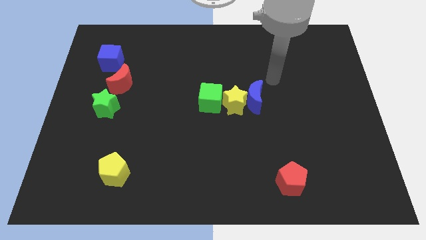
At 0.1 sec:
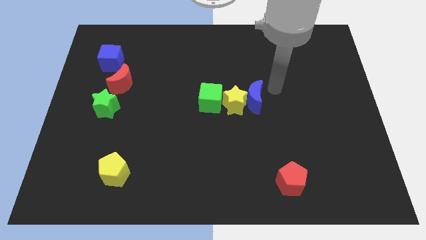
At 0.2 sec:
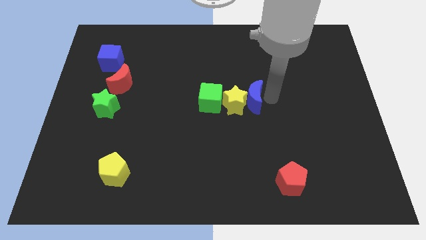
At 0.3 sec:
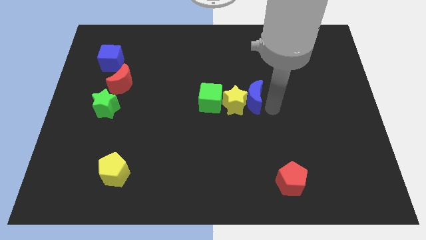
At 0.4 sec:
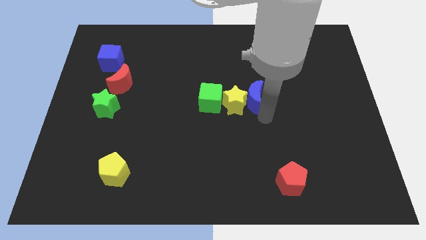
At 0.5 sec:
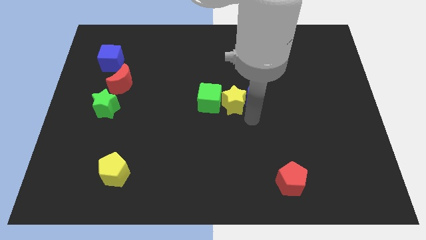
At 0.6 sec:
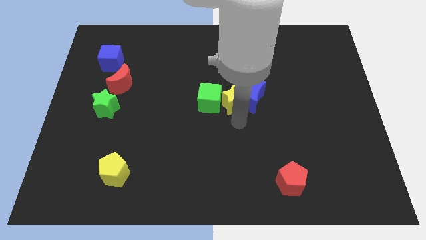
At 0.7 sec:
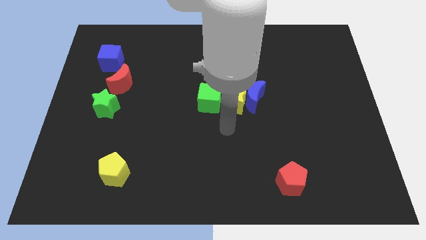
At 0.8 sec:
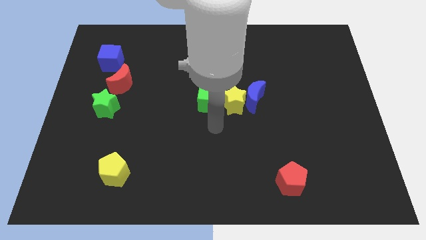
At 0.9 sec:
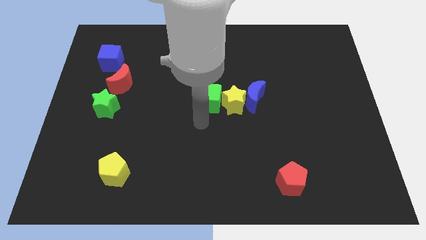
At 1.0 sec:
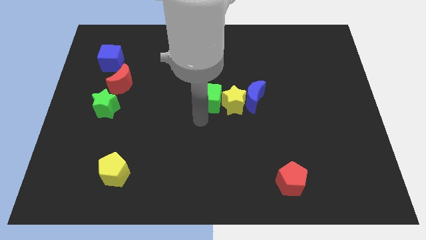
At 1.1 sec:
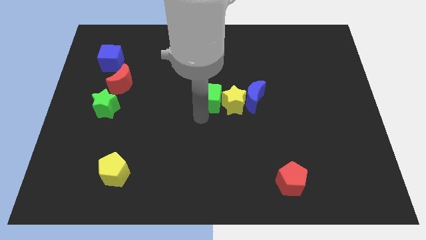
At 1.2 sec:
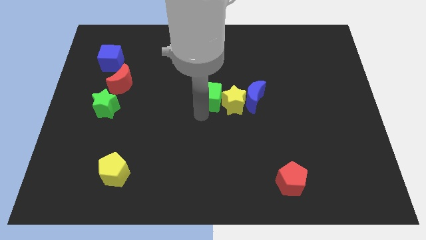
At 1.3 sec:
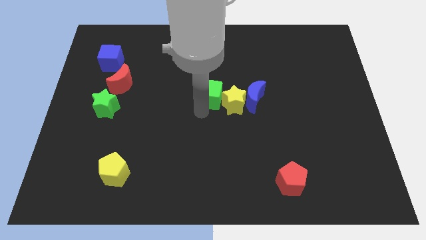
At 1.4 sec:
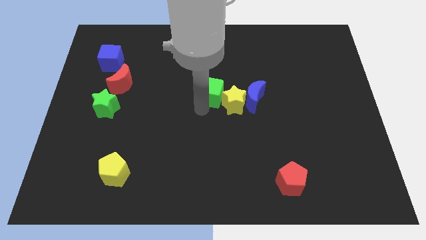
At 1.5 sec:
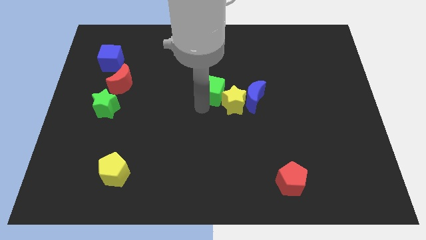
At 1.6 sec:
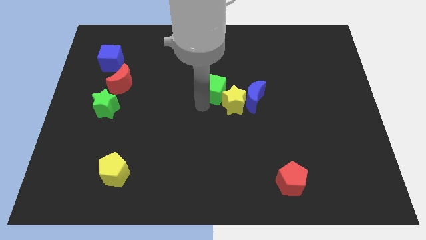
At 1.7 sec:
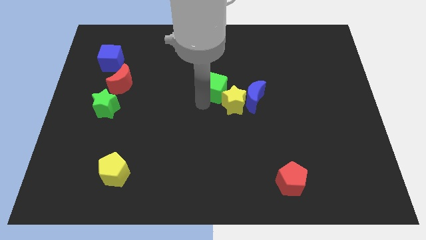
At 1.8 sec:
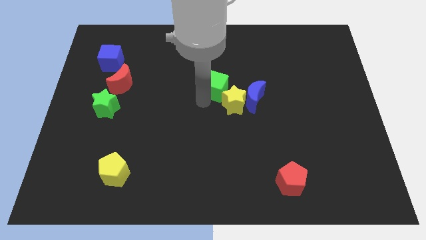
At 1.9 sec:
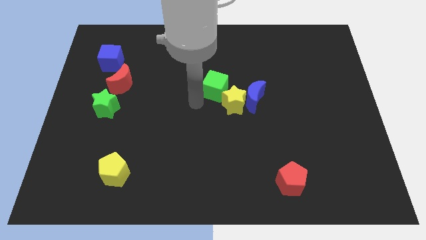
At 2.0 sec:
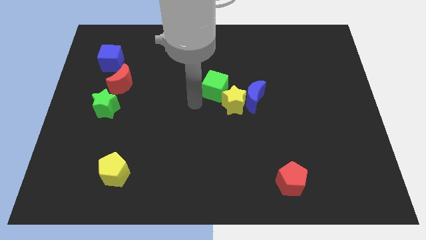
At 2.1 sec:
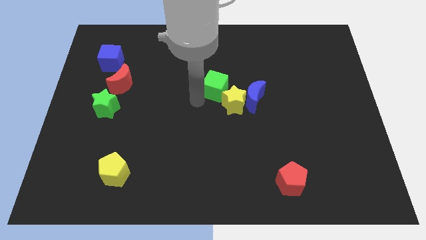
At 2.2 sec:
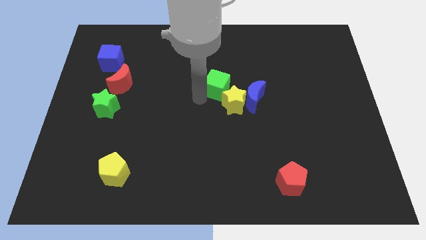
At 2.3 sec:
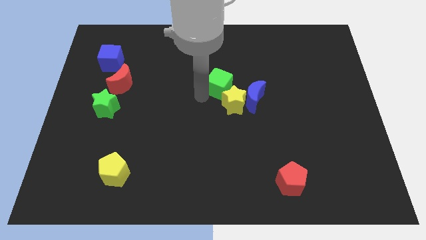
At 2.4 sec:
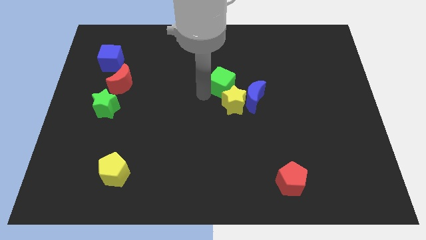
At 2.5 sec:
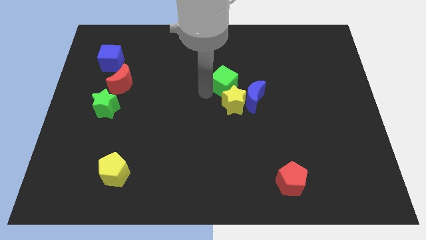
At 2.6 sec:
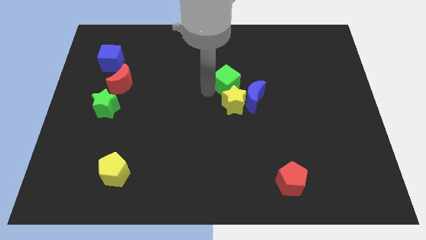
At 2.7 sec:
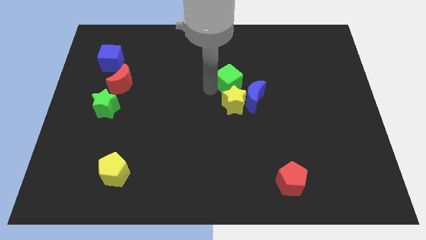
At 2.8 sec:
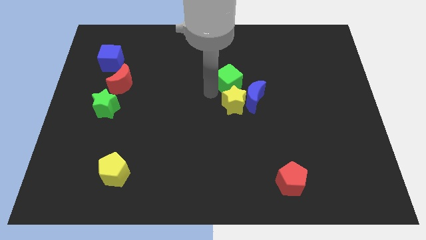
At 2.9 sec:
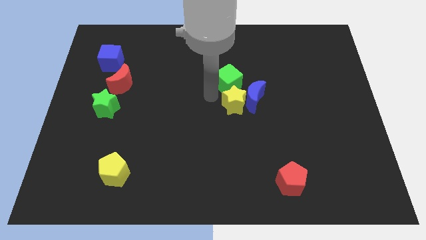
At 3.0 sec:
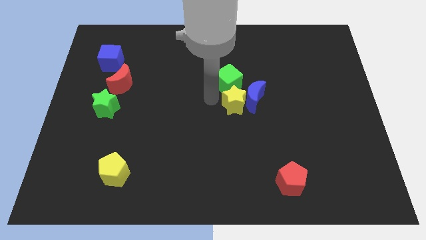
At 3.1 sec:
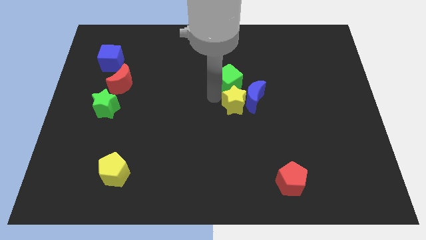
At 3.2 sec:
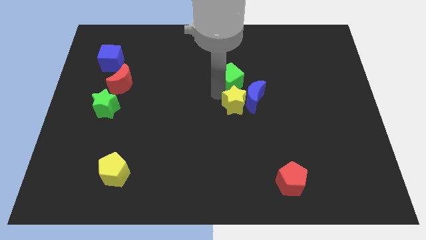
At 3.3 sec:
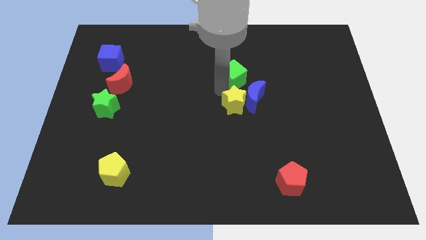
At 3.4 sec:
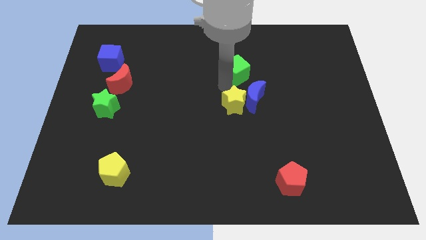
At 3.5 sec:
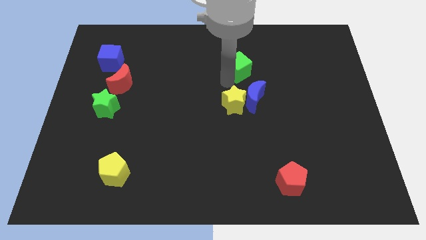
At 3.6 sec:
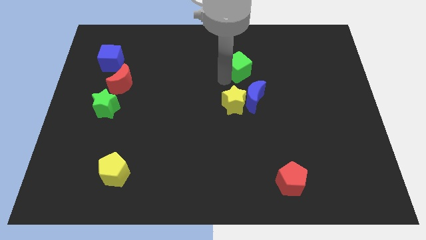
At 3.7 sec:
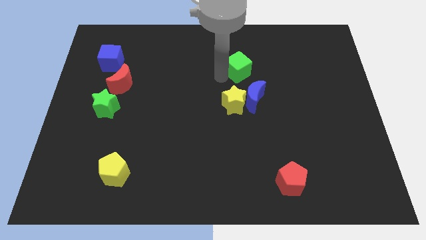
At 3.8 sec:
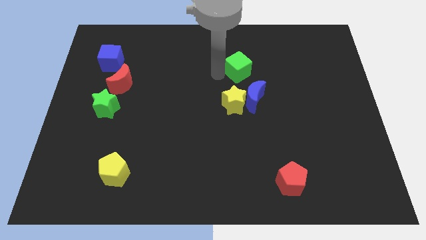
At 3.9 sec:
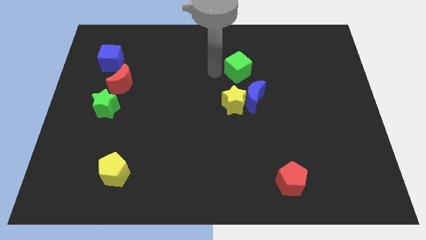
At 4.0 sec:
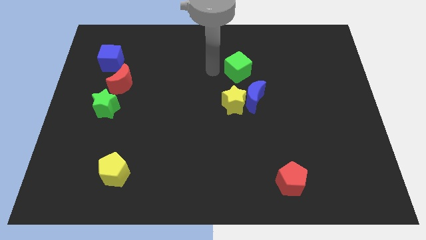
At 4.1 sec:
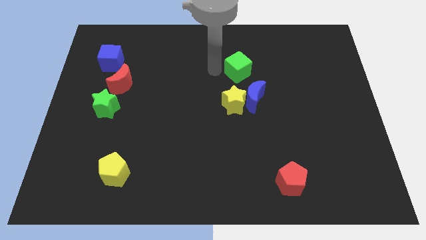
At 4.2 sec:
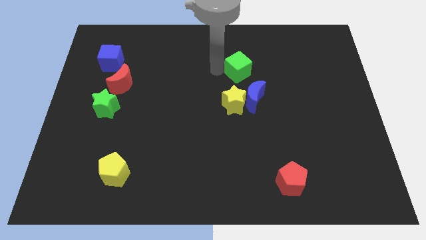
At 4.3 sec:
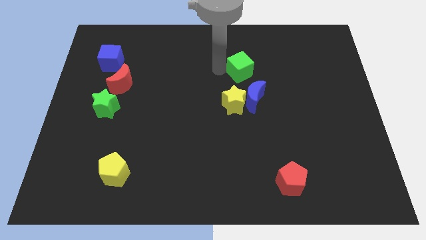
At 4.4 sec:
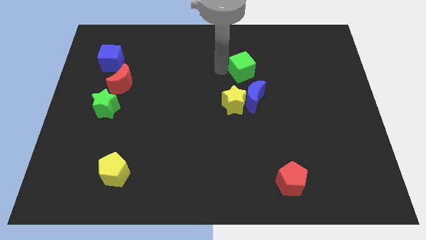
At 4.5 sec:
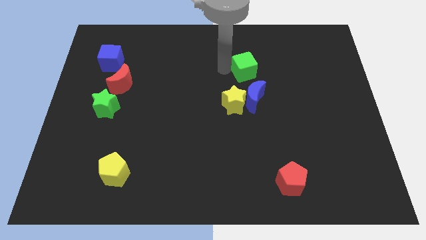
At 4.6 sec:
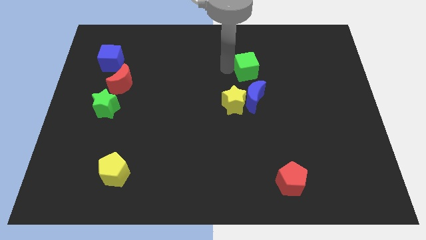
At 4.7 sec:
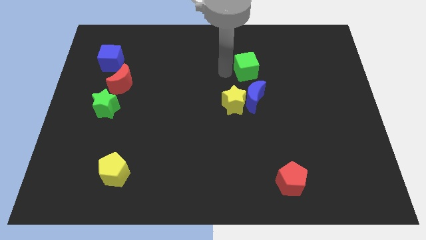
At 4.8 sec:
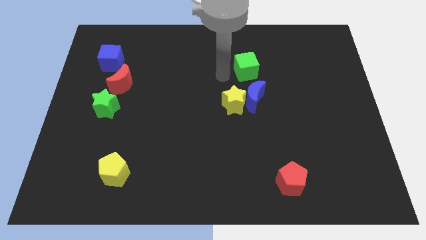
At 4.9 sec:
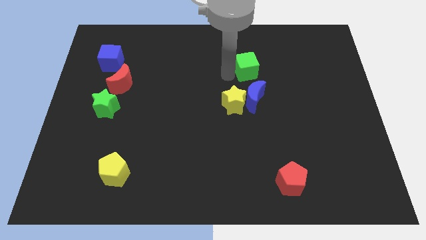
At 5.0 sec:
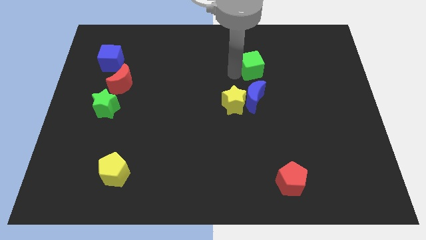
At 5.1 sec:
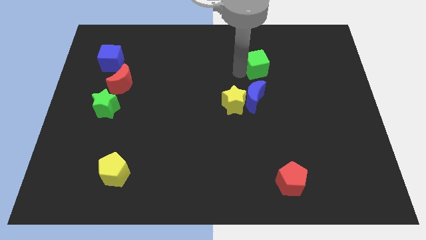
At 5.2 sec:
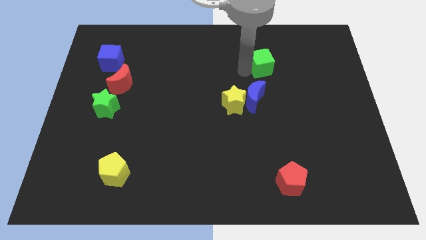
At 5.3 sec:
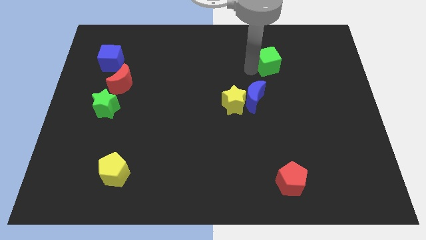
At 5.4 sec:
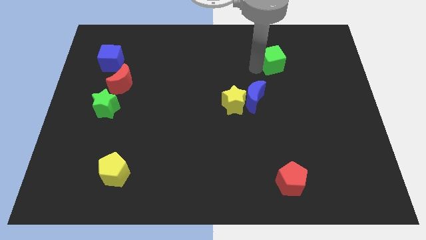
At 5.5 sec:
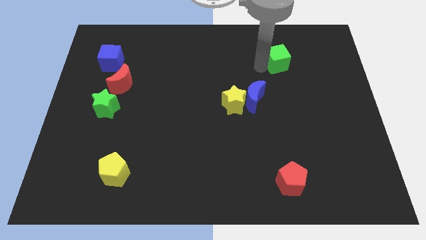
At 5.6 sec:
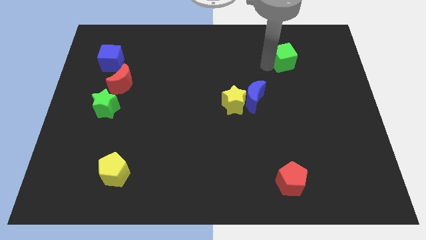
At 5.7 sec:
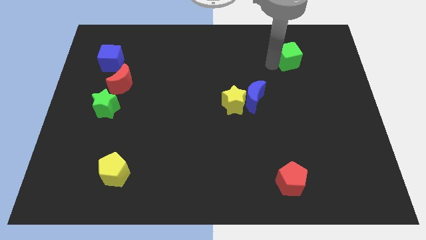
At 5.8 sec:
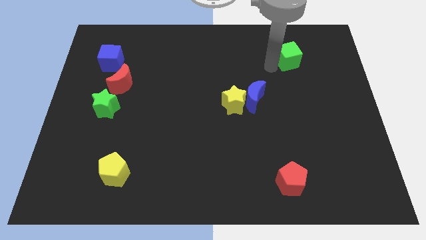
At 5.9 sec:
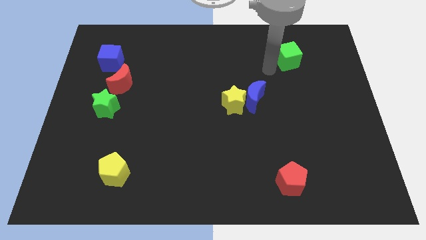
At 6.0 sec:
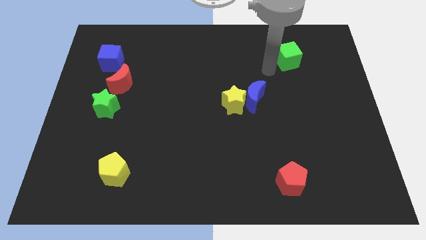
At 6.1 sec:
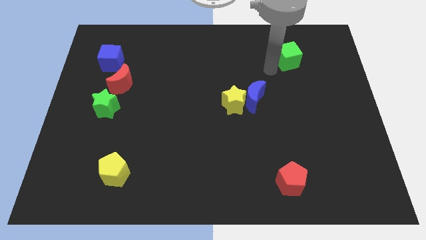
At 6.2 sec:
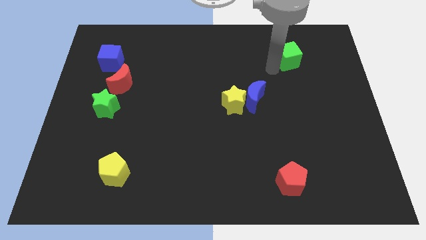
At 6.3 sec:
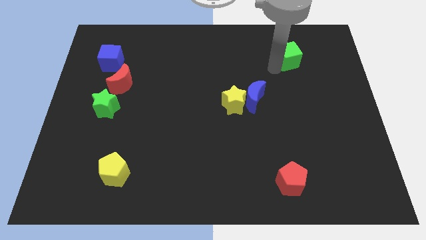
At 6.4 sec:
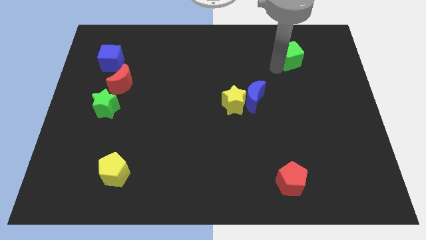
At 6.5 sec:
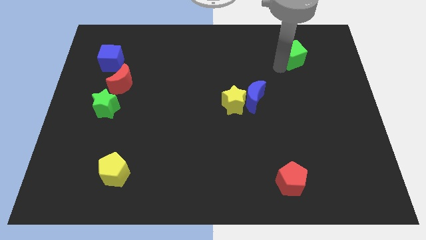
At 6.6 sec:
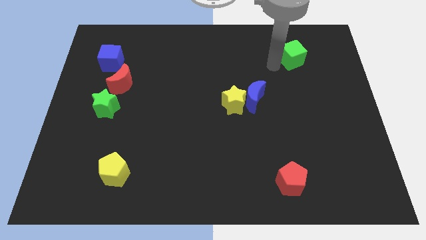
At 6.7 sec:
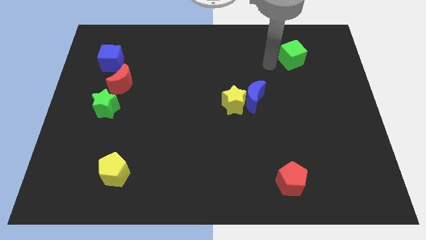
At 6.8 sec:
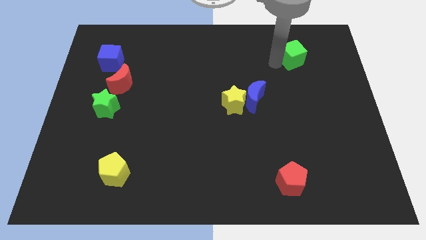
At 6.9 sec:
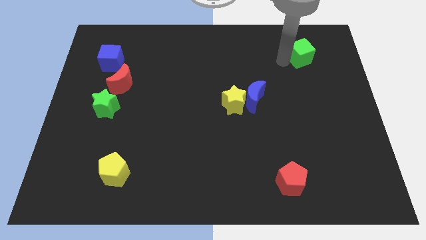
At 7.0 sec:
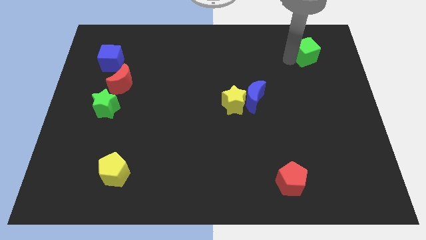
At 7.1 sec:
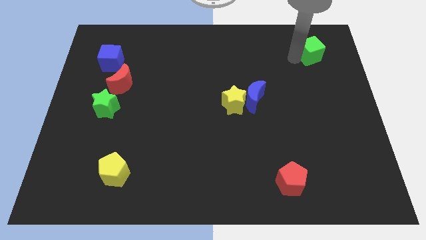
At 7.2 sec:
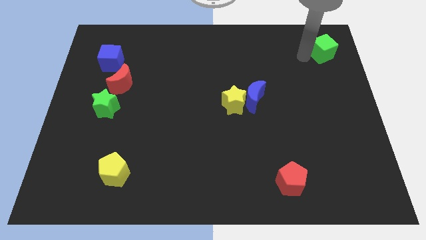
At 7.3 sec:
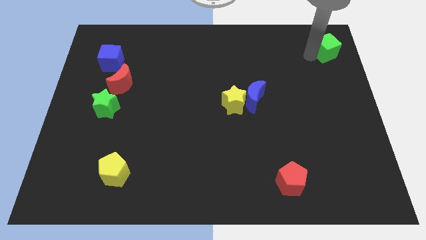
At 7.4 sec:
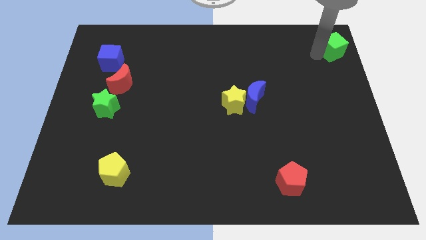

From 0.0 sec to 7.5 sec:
push the green cube to the top right of the board
